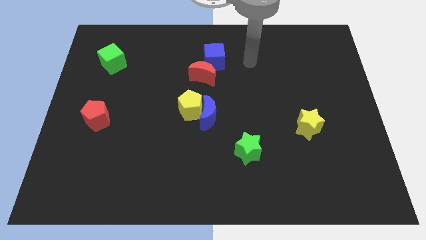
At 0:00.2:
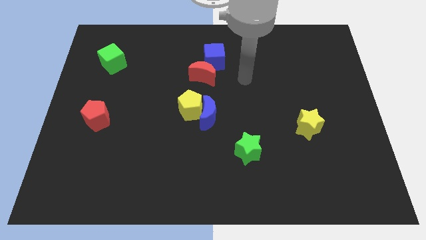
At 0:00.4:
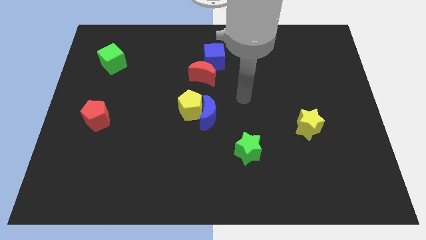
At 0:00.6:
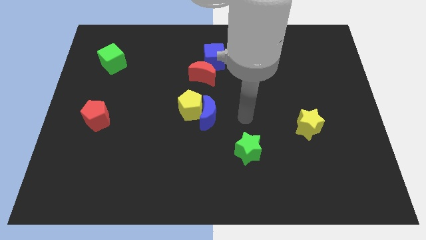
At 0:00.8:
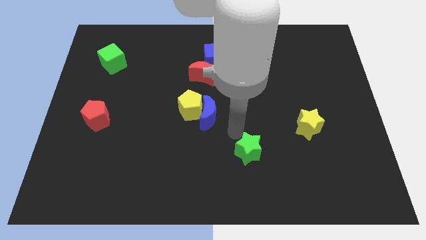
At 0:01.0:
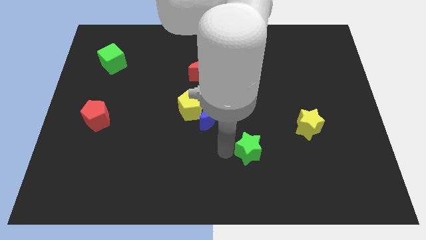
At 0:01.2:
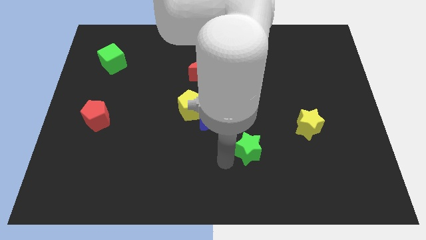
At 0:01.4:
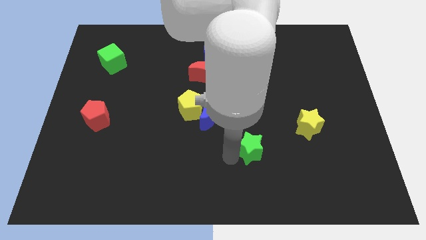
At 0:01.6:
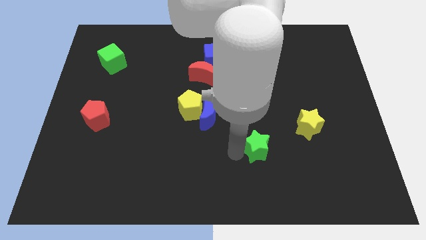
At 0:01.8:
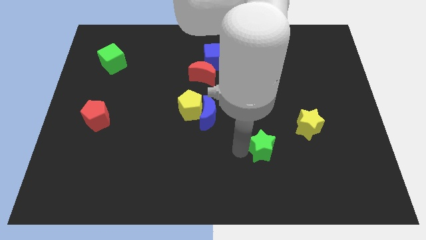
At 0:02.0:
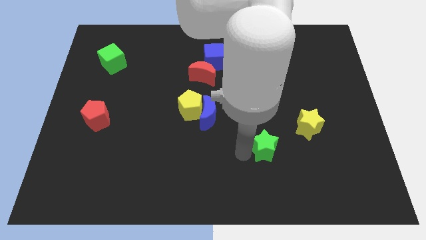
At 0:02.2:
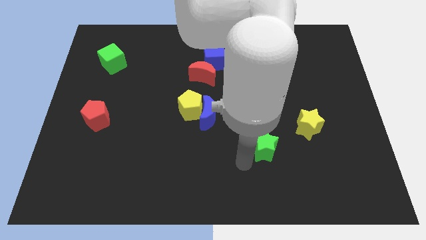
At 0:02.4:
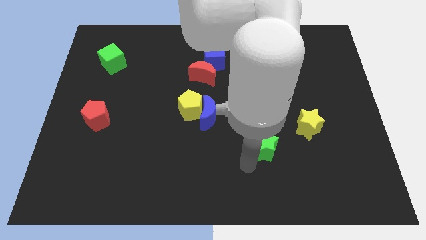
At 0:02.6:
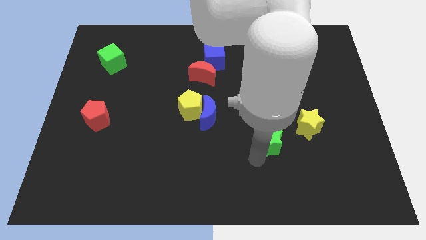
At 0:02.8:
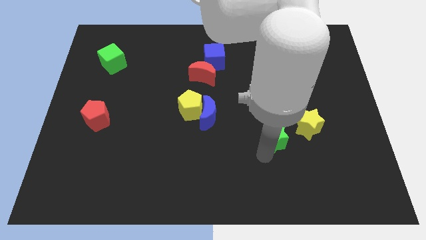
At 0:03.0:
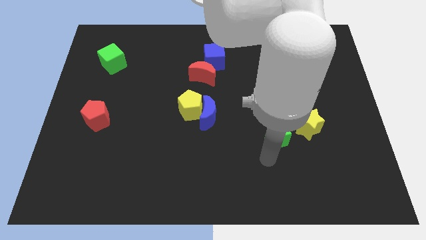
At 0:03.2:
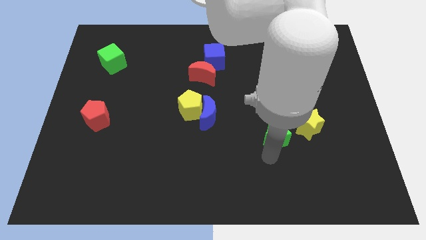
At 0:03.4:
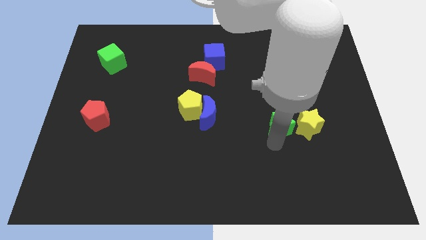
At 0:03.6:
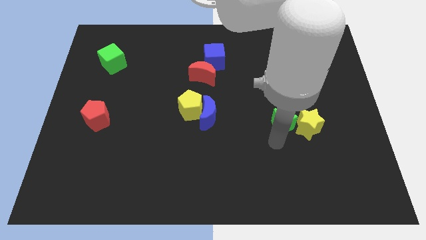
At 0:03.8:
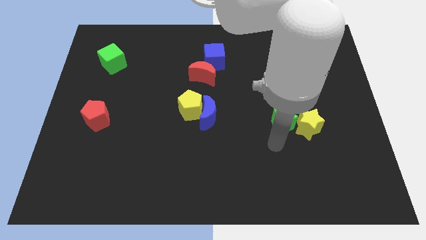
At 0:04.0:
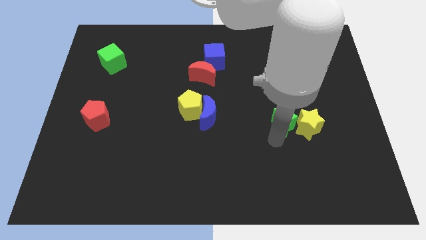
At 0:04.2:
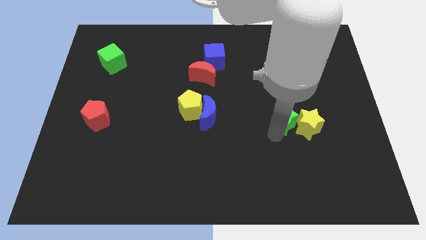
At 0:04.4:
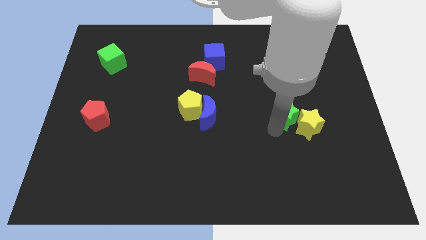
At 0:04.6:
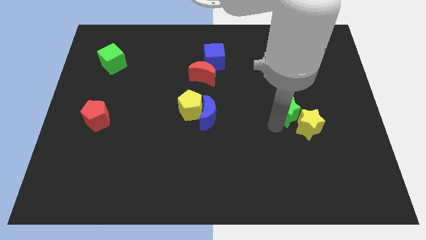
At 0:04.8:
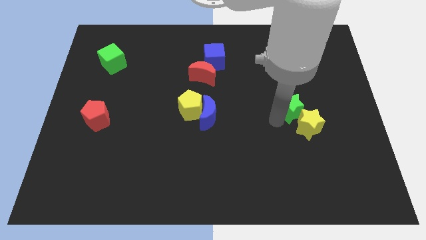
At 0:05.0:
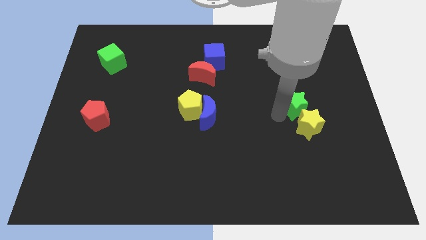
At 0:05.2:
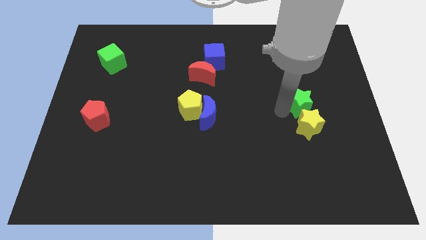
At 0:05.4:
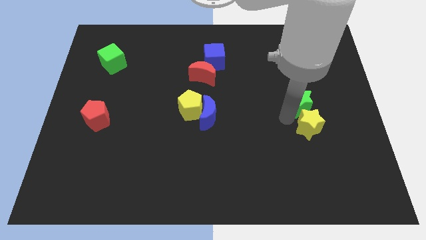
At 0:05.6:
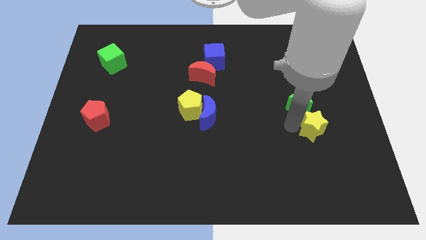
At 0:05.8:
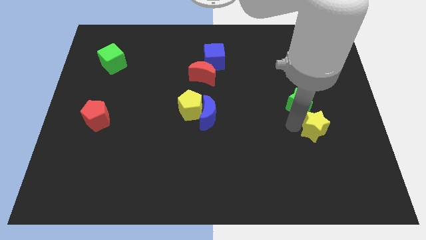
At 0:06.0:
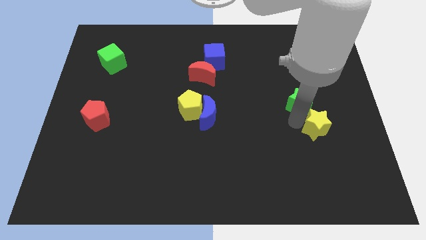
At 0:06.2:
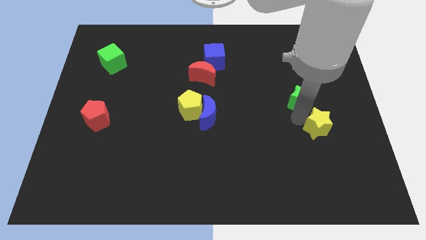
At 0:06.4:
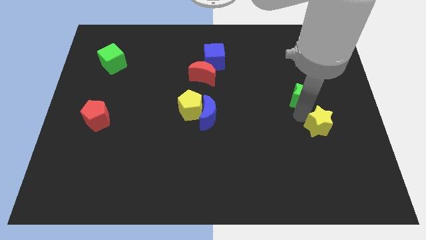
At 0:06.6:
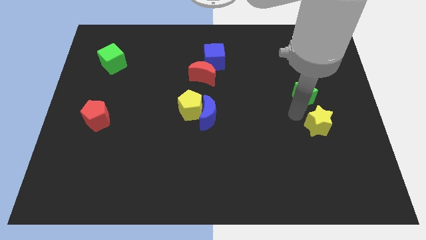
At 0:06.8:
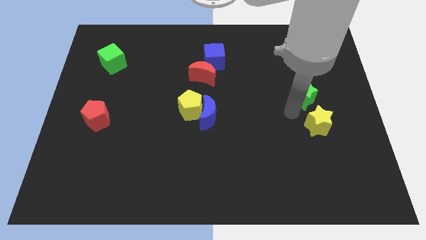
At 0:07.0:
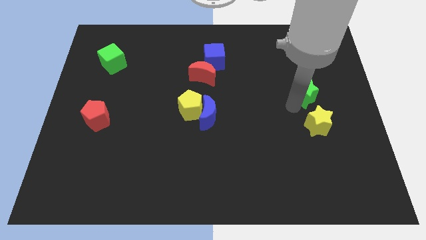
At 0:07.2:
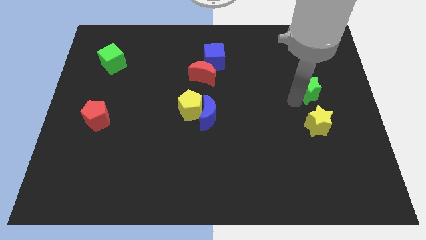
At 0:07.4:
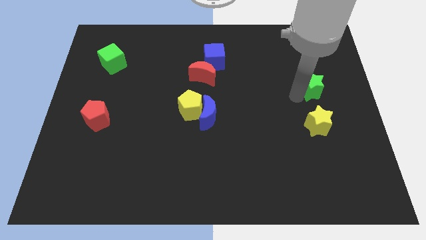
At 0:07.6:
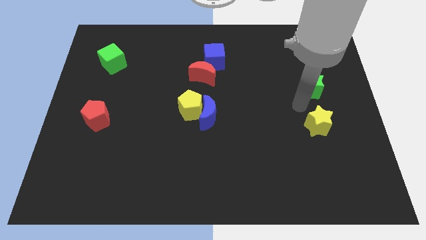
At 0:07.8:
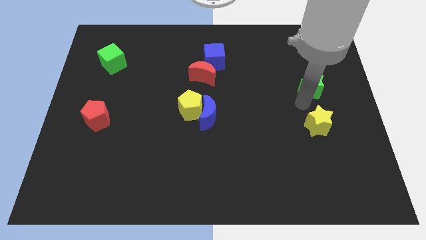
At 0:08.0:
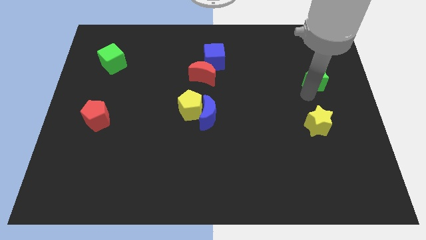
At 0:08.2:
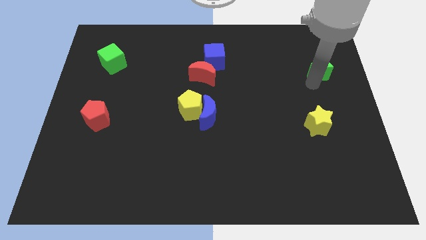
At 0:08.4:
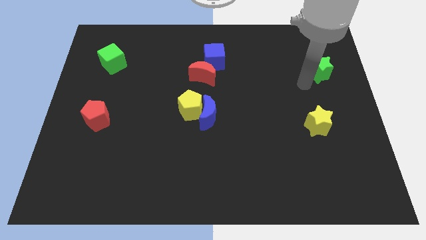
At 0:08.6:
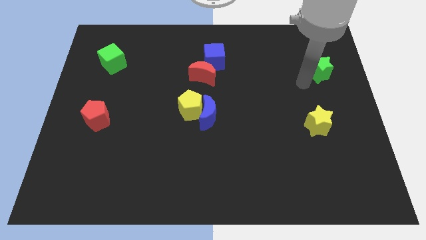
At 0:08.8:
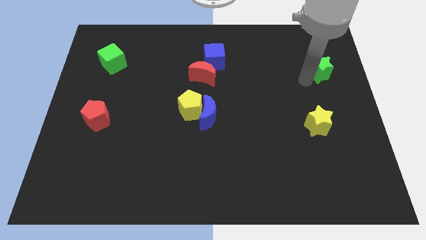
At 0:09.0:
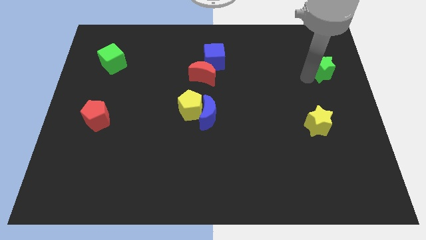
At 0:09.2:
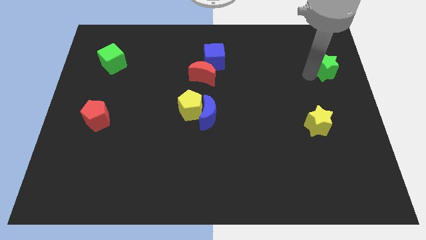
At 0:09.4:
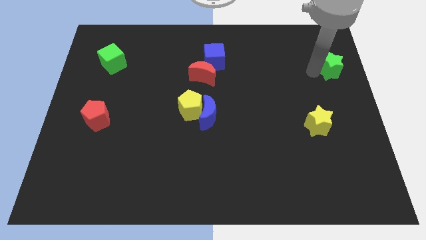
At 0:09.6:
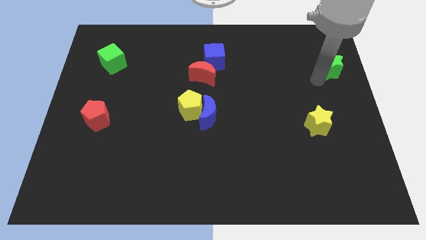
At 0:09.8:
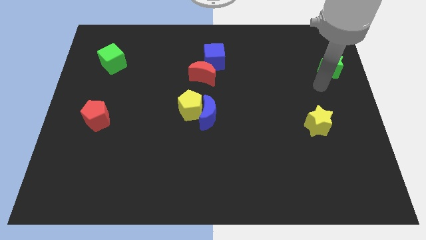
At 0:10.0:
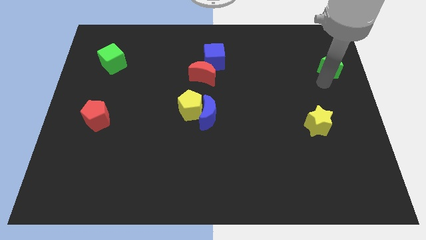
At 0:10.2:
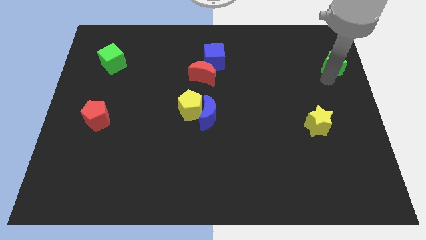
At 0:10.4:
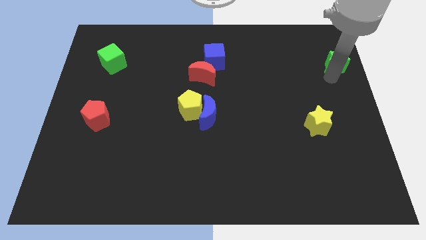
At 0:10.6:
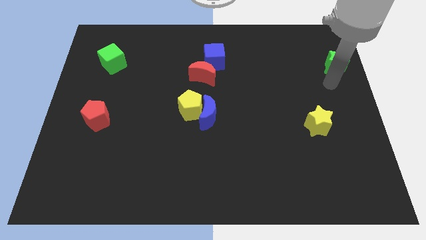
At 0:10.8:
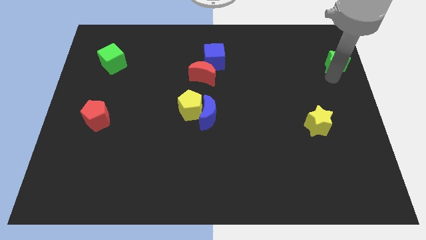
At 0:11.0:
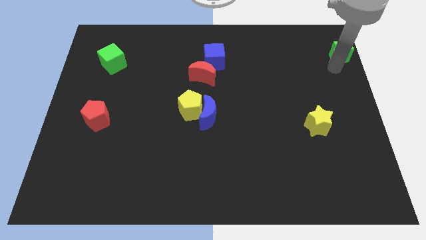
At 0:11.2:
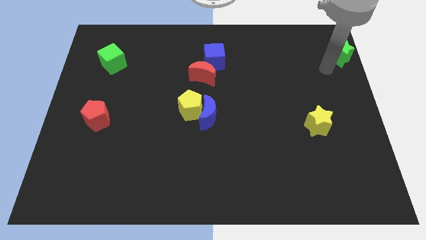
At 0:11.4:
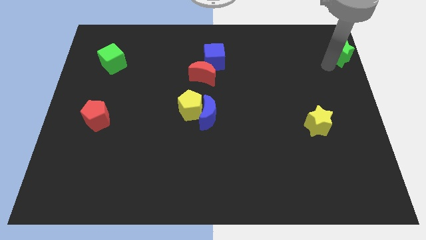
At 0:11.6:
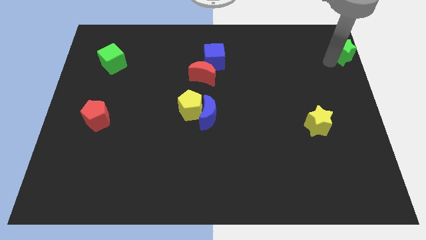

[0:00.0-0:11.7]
push the green star to the upper right corner

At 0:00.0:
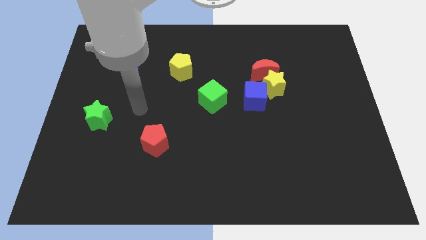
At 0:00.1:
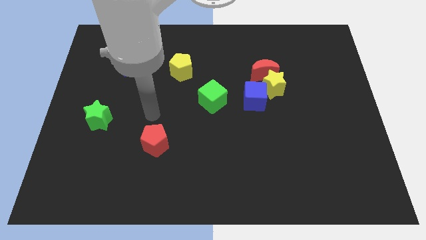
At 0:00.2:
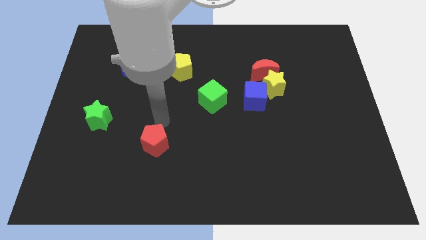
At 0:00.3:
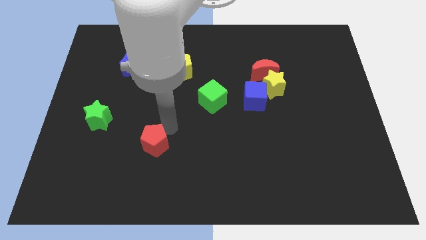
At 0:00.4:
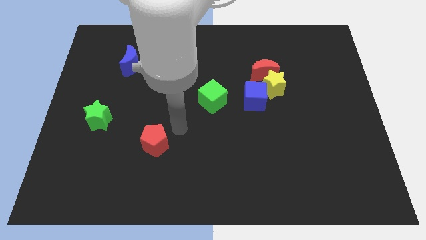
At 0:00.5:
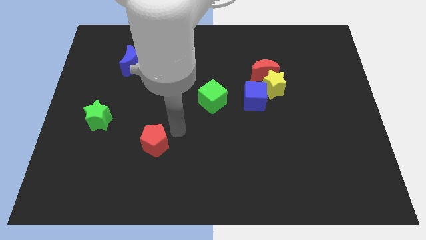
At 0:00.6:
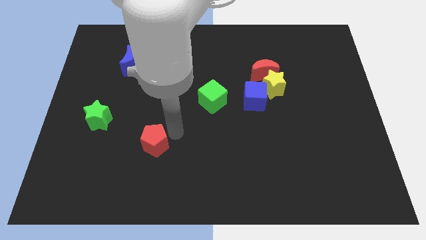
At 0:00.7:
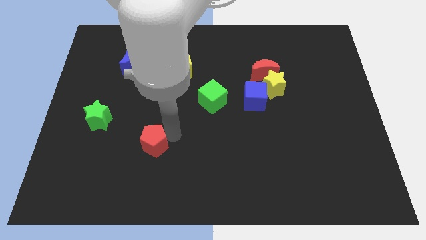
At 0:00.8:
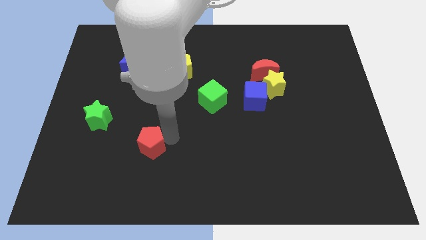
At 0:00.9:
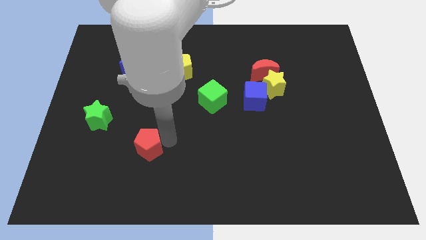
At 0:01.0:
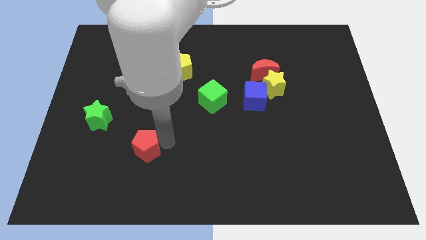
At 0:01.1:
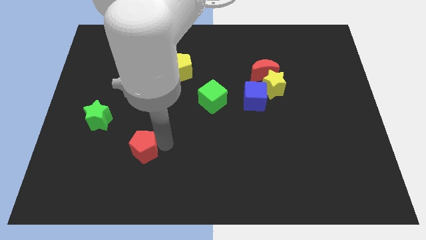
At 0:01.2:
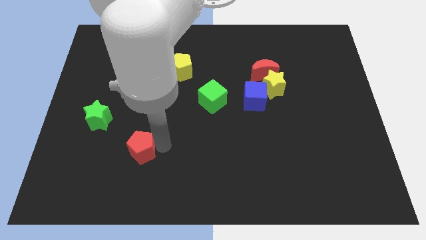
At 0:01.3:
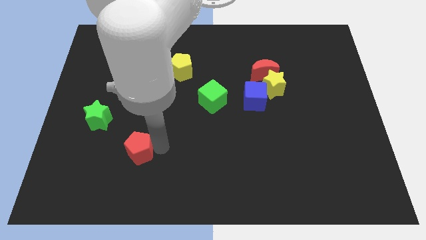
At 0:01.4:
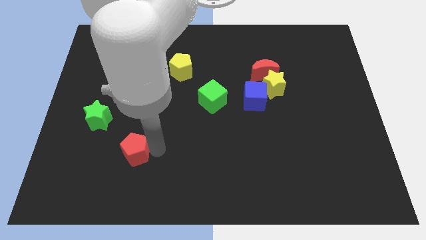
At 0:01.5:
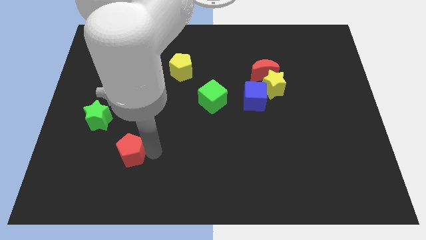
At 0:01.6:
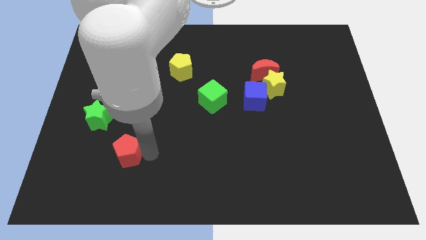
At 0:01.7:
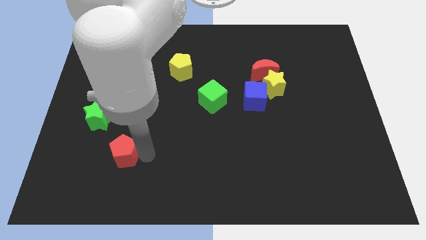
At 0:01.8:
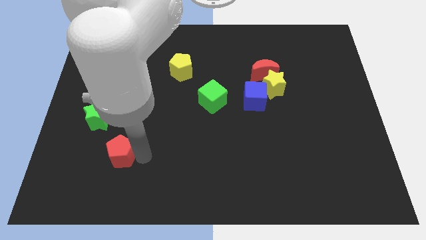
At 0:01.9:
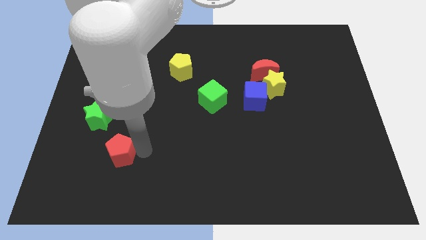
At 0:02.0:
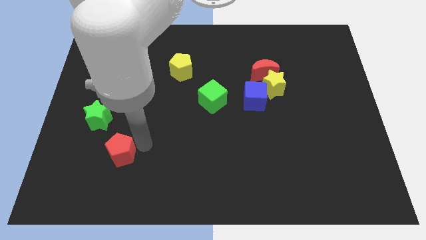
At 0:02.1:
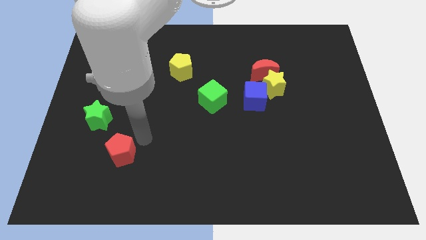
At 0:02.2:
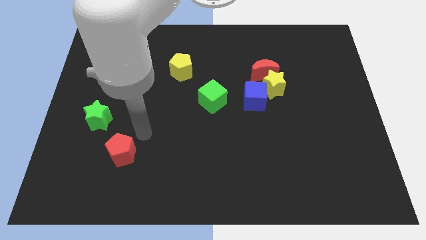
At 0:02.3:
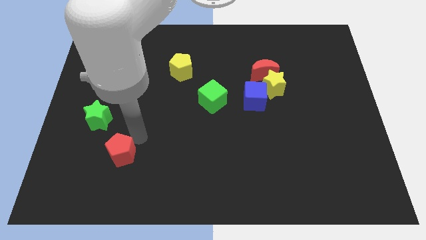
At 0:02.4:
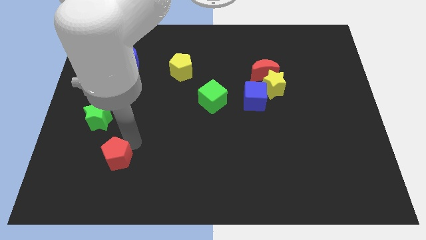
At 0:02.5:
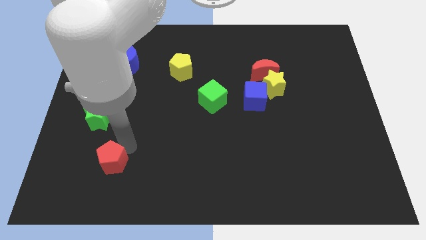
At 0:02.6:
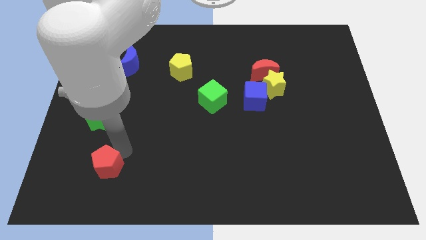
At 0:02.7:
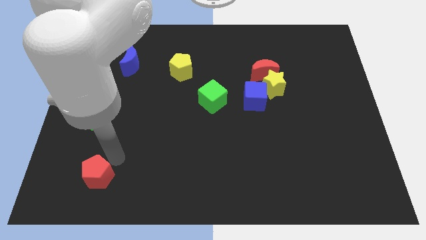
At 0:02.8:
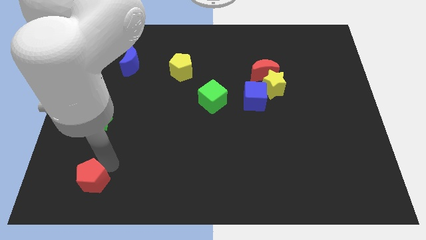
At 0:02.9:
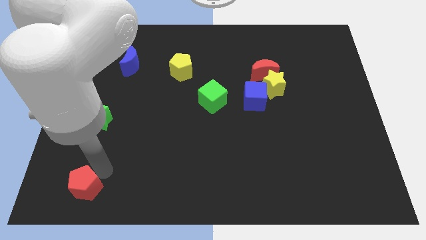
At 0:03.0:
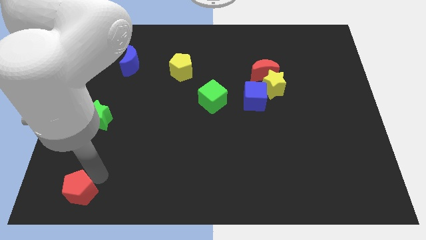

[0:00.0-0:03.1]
move the red pentagon to the bottom left
